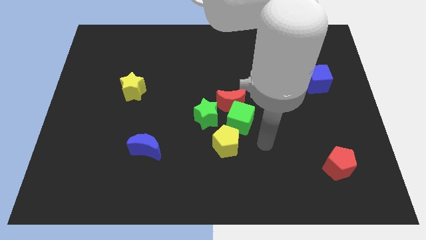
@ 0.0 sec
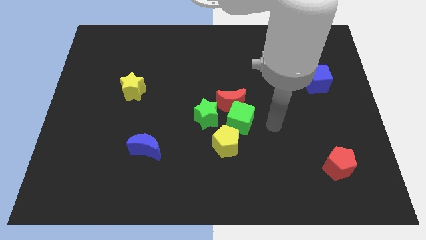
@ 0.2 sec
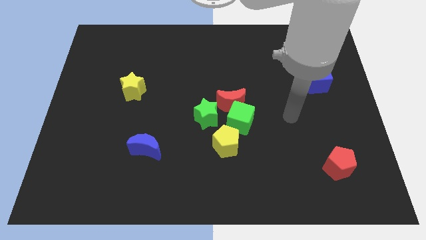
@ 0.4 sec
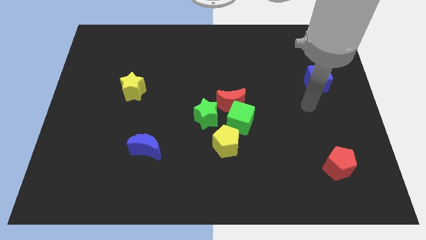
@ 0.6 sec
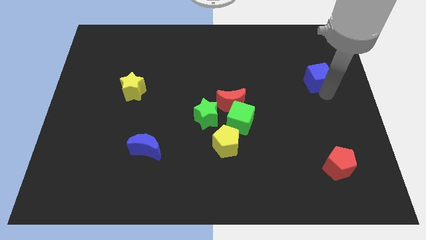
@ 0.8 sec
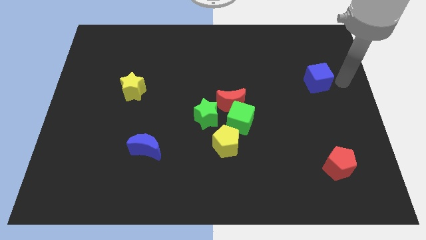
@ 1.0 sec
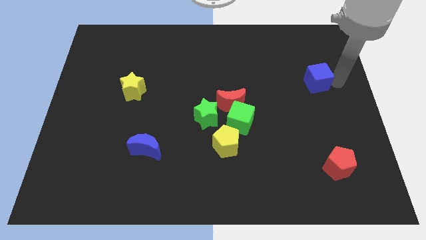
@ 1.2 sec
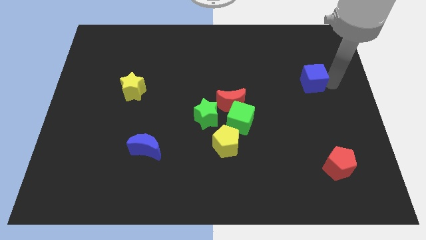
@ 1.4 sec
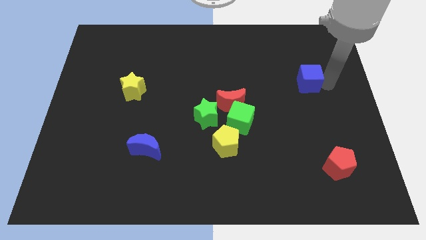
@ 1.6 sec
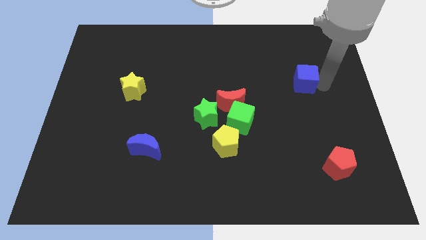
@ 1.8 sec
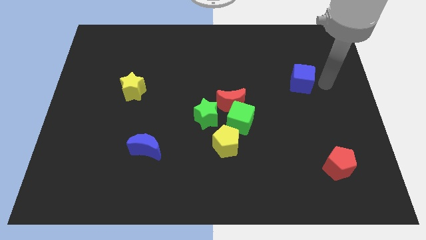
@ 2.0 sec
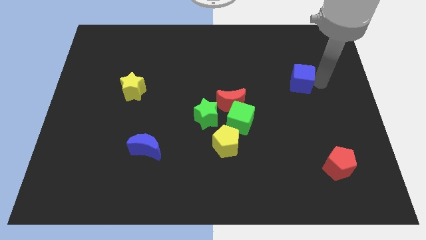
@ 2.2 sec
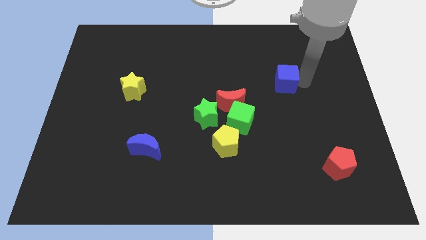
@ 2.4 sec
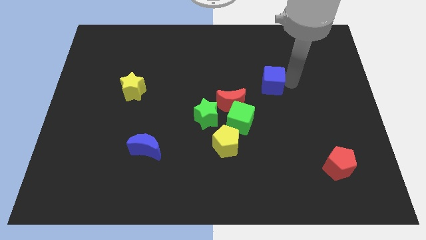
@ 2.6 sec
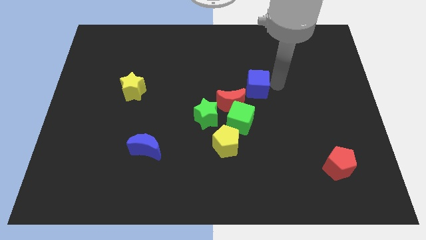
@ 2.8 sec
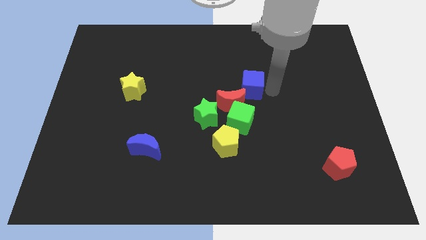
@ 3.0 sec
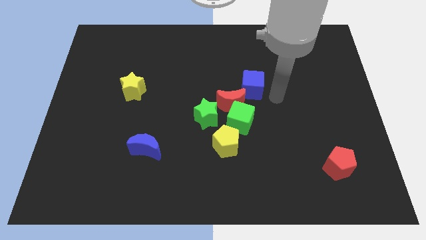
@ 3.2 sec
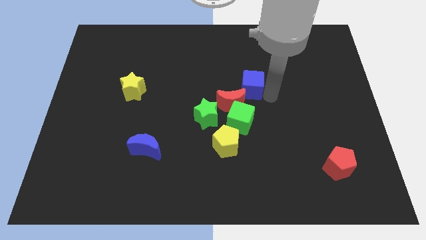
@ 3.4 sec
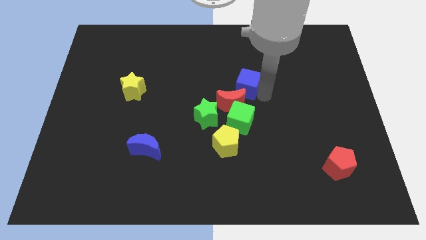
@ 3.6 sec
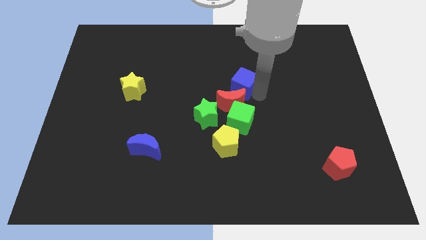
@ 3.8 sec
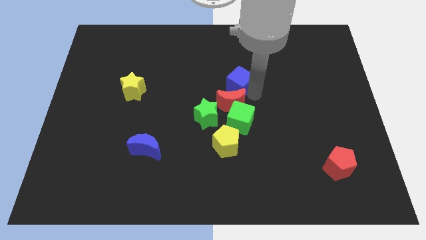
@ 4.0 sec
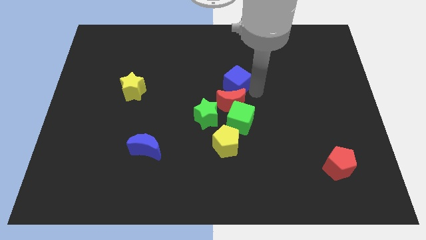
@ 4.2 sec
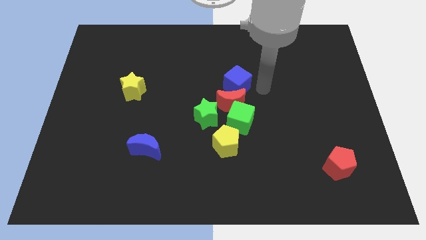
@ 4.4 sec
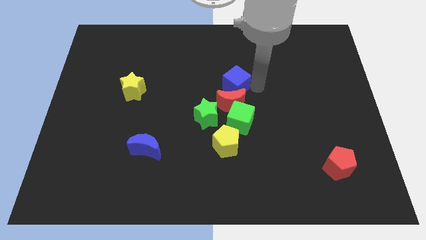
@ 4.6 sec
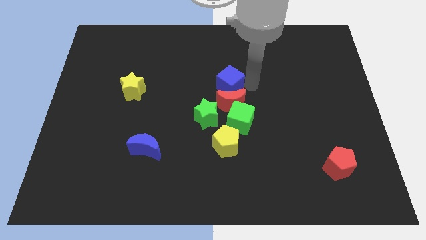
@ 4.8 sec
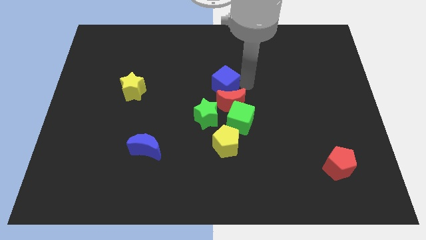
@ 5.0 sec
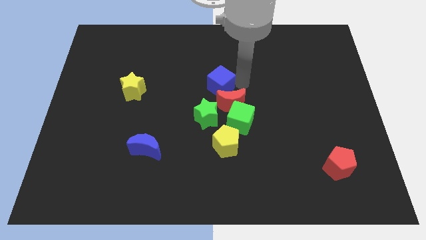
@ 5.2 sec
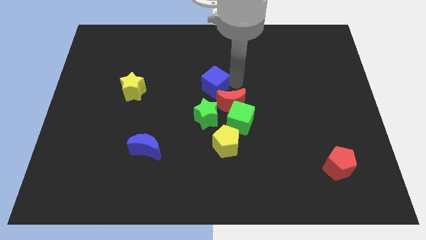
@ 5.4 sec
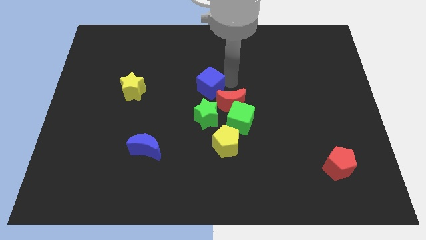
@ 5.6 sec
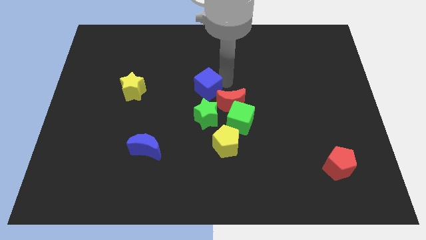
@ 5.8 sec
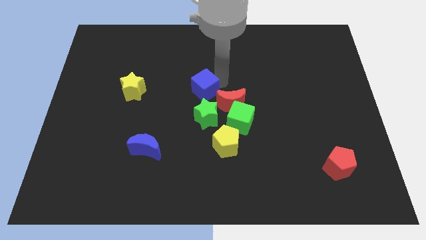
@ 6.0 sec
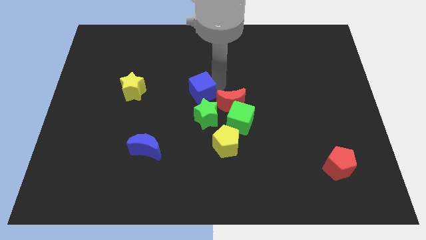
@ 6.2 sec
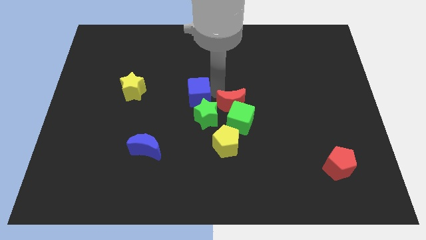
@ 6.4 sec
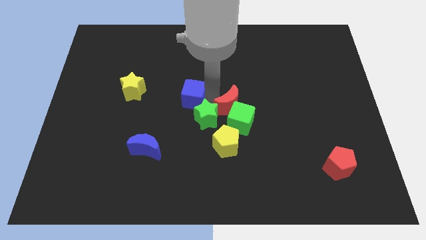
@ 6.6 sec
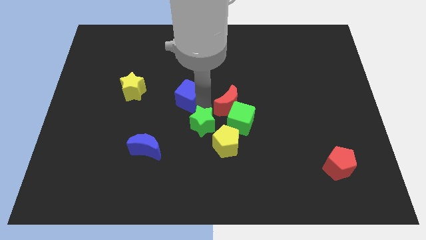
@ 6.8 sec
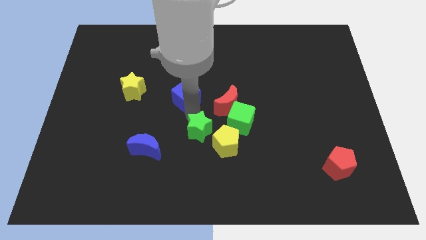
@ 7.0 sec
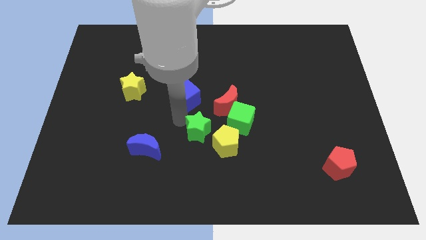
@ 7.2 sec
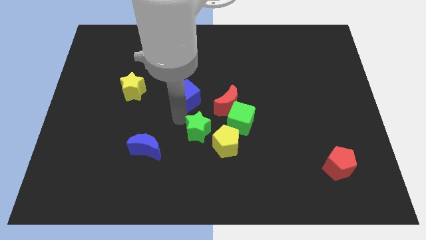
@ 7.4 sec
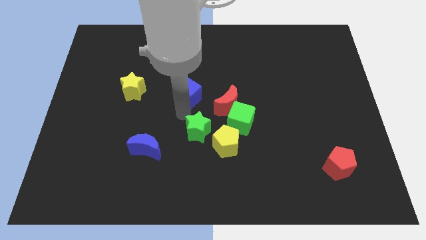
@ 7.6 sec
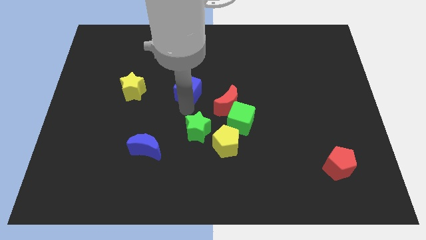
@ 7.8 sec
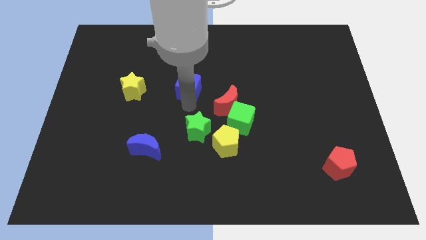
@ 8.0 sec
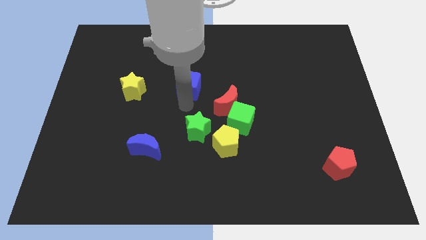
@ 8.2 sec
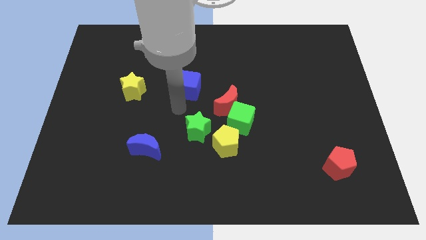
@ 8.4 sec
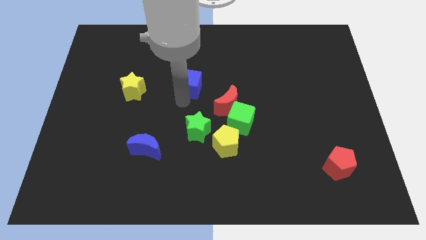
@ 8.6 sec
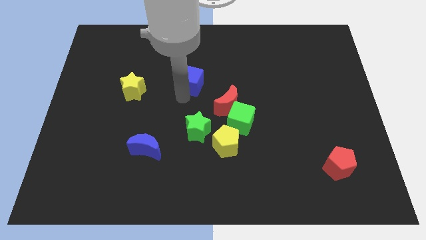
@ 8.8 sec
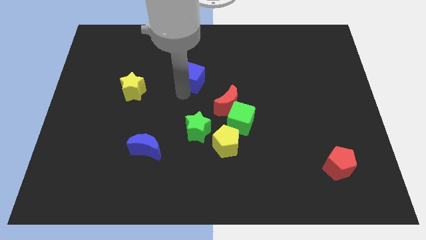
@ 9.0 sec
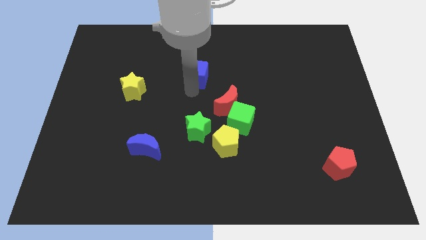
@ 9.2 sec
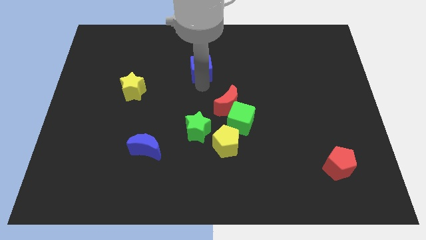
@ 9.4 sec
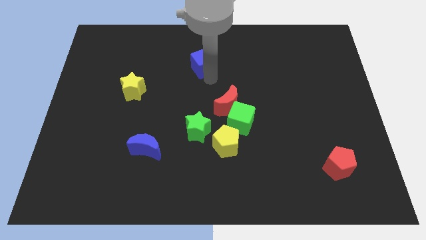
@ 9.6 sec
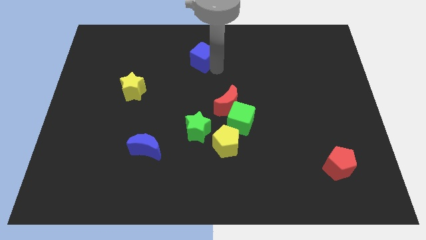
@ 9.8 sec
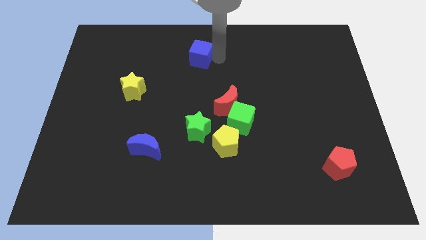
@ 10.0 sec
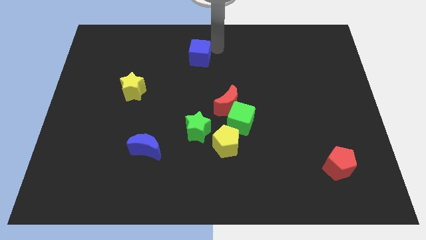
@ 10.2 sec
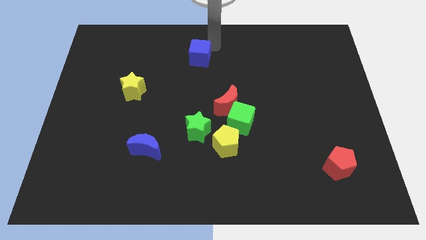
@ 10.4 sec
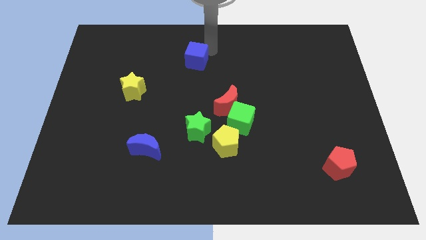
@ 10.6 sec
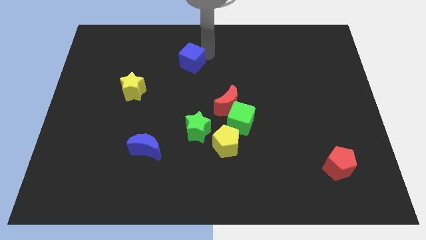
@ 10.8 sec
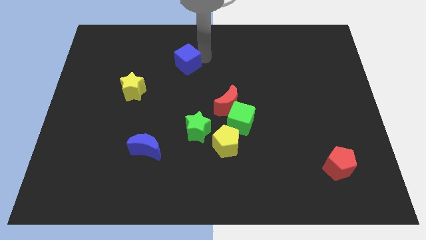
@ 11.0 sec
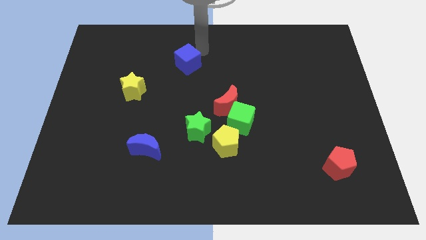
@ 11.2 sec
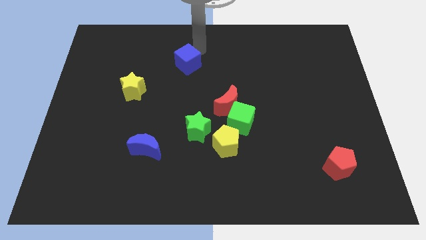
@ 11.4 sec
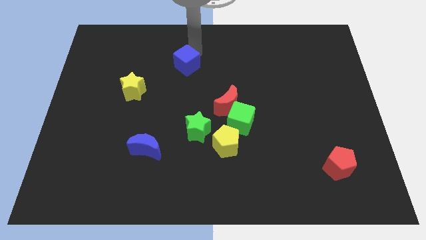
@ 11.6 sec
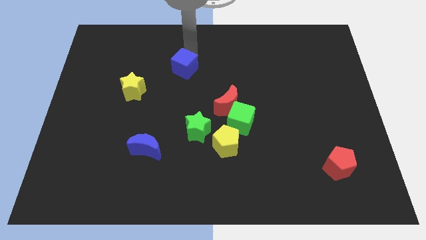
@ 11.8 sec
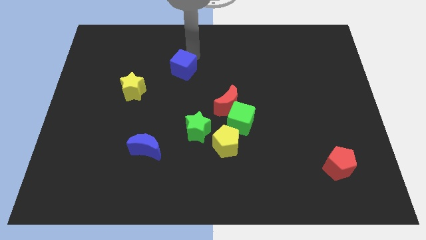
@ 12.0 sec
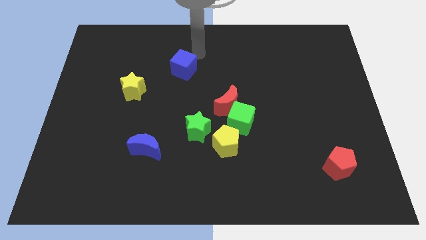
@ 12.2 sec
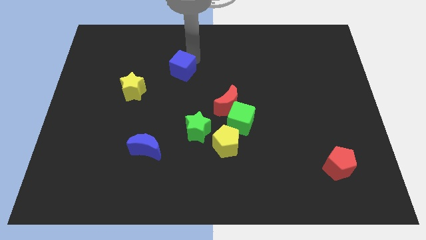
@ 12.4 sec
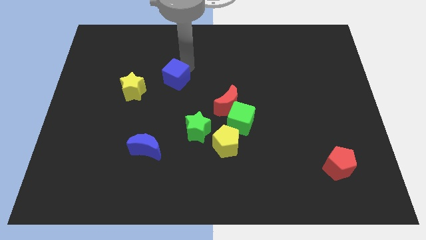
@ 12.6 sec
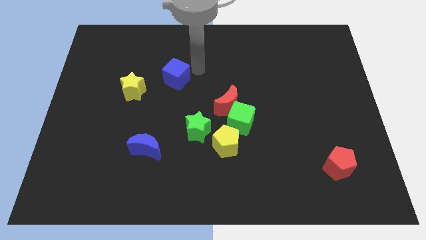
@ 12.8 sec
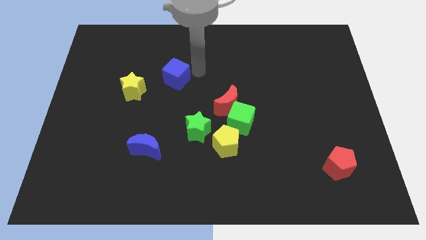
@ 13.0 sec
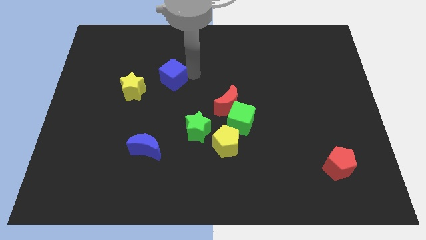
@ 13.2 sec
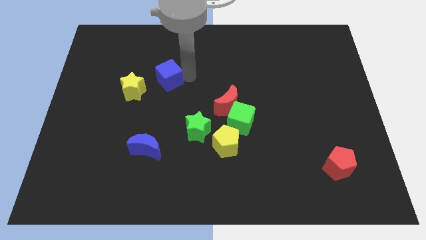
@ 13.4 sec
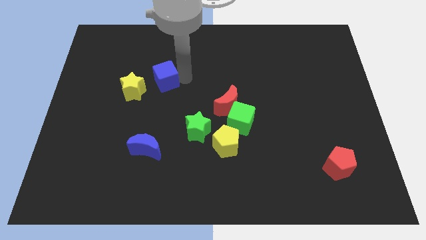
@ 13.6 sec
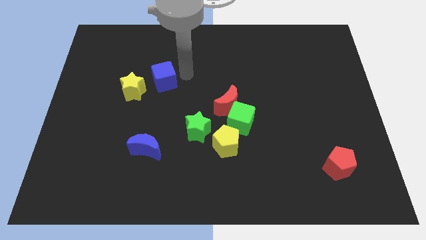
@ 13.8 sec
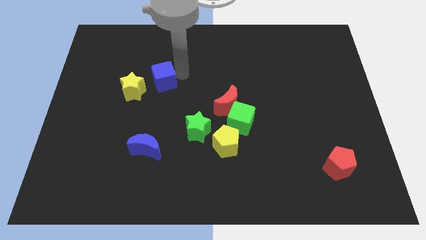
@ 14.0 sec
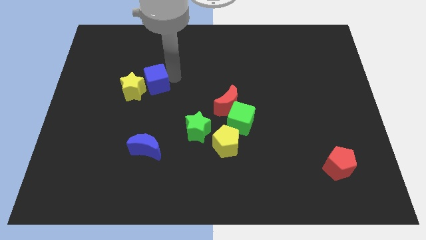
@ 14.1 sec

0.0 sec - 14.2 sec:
put the blue cube close to the yellow star

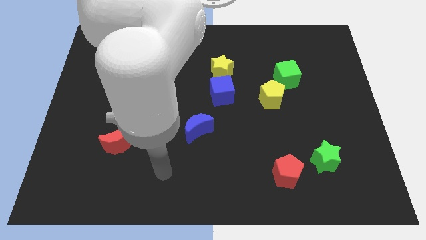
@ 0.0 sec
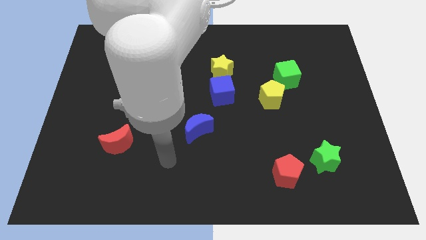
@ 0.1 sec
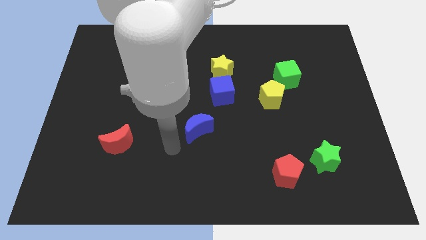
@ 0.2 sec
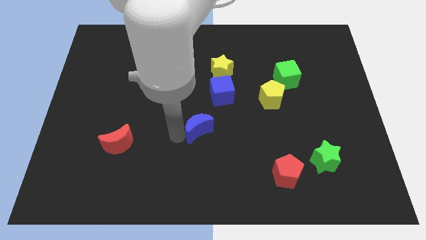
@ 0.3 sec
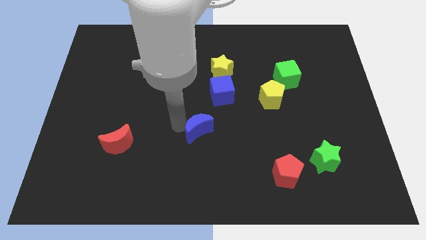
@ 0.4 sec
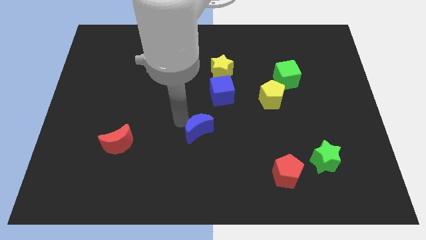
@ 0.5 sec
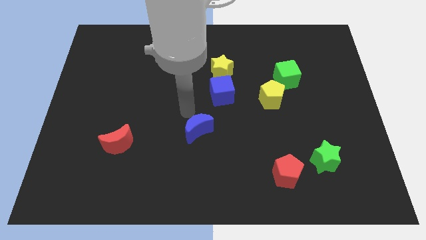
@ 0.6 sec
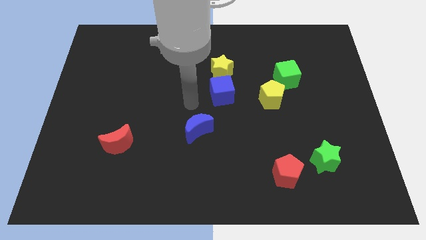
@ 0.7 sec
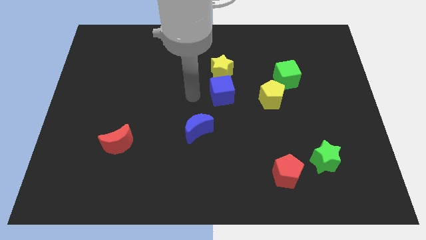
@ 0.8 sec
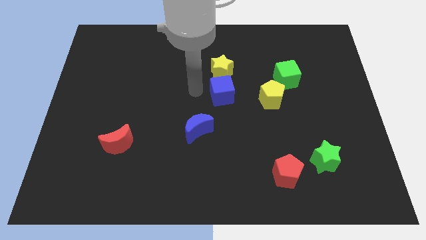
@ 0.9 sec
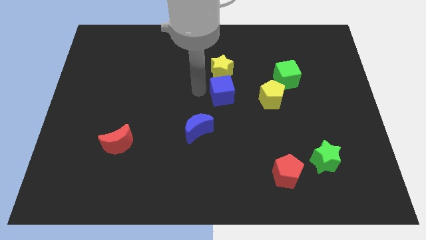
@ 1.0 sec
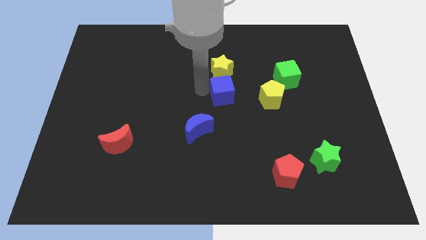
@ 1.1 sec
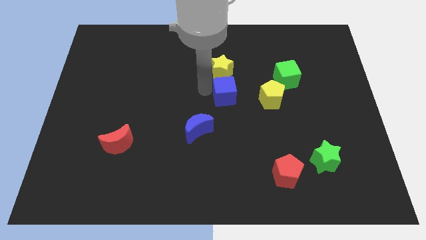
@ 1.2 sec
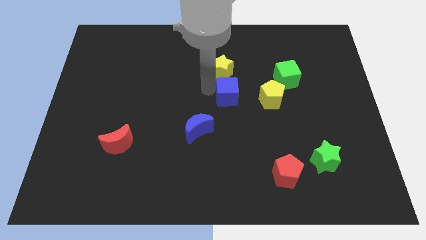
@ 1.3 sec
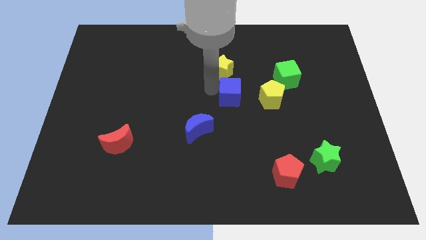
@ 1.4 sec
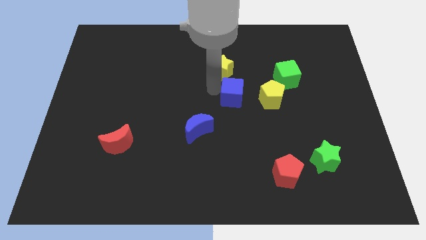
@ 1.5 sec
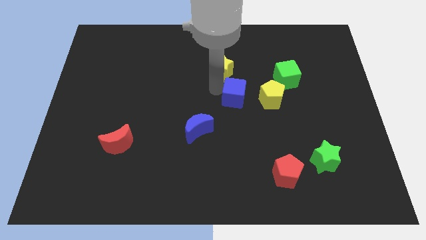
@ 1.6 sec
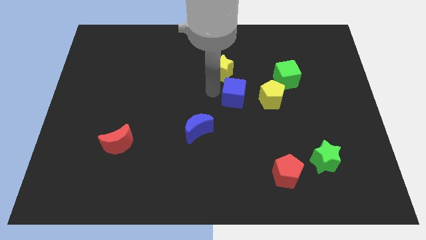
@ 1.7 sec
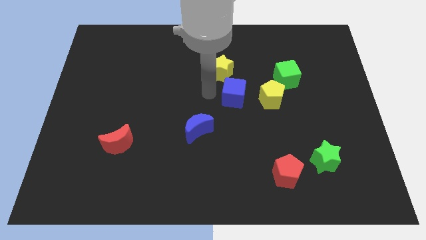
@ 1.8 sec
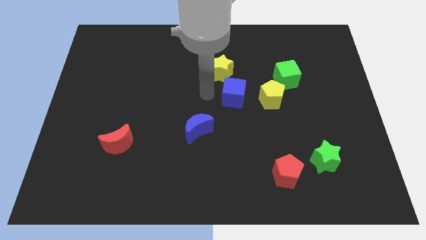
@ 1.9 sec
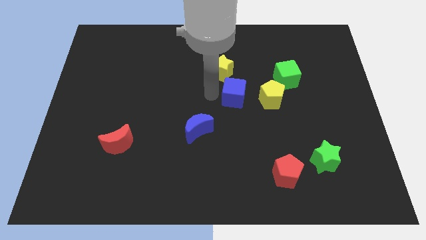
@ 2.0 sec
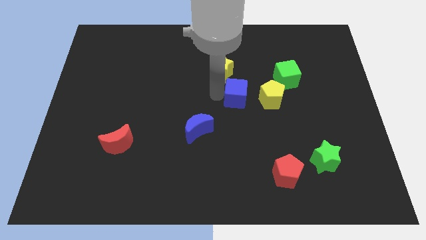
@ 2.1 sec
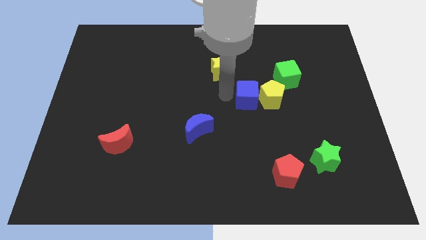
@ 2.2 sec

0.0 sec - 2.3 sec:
push the blue cube next to the yellow pentagon
